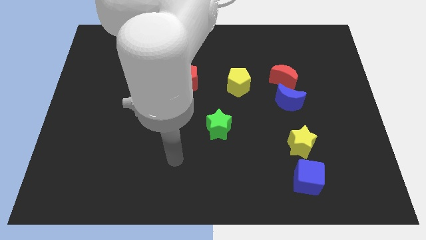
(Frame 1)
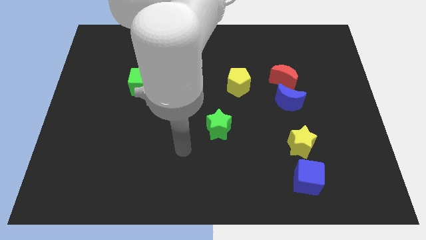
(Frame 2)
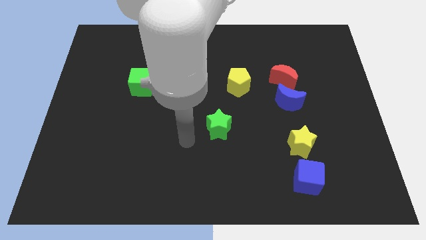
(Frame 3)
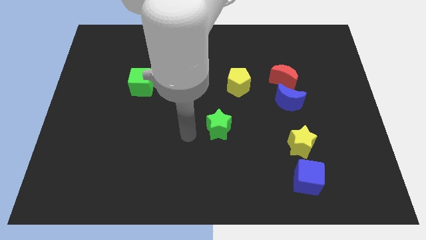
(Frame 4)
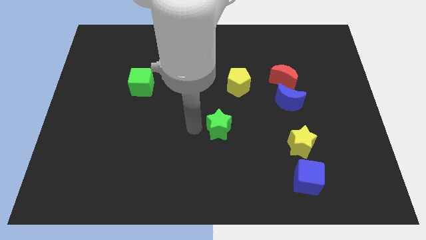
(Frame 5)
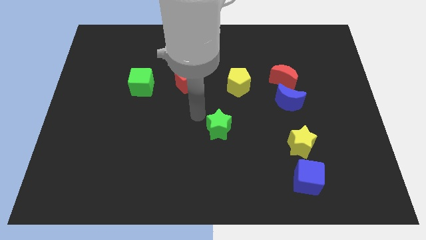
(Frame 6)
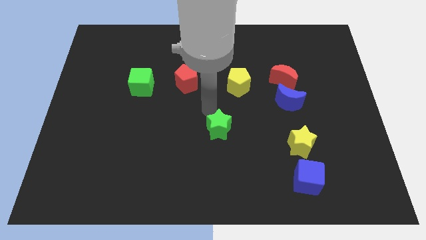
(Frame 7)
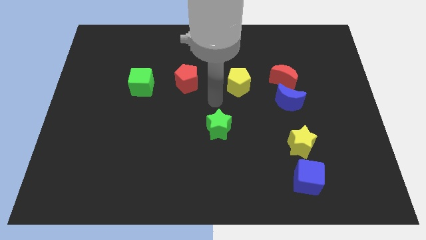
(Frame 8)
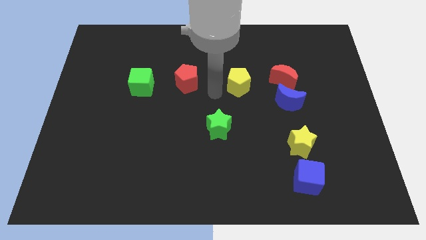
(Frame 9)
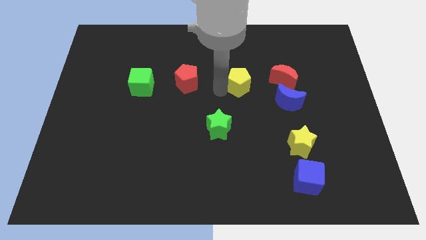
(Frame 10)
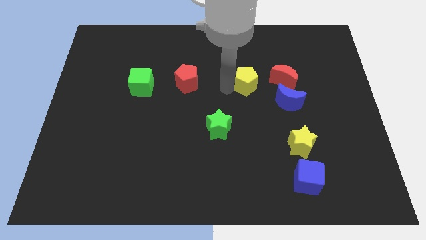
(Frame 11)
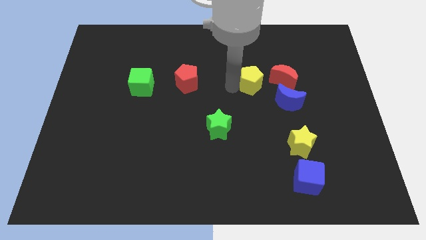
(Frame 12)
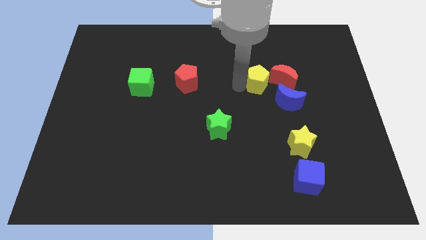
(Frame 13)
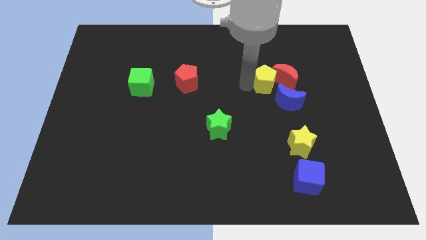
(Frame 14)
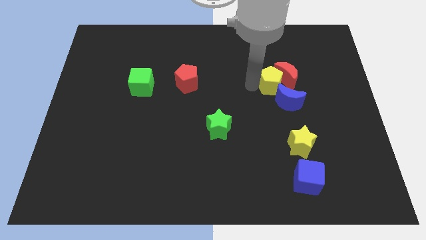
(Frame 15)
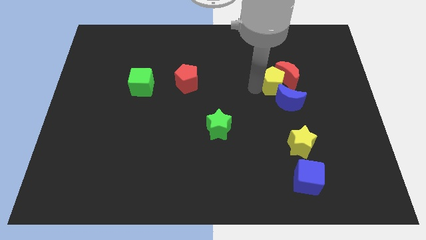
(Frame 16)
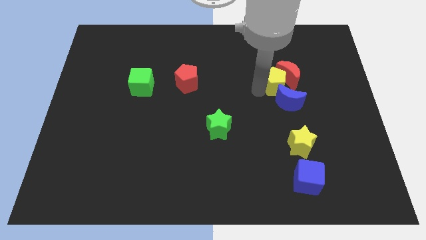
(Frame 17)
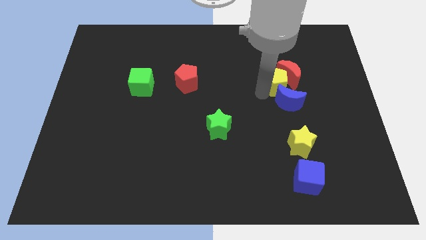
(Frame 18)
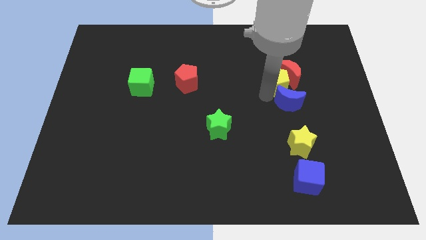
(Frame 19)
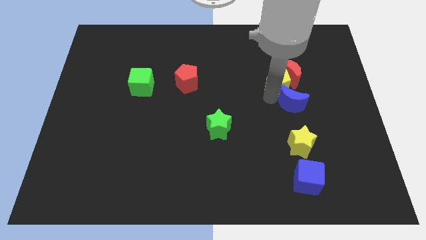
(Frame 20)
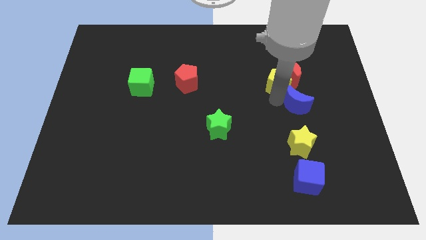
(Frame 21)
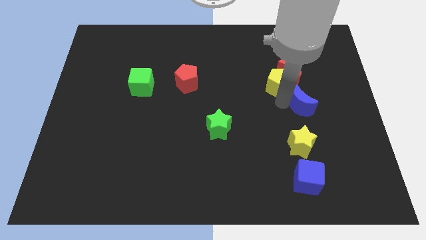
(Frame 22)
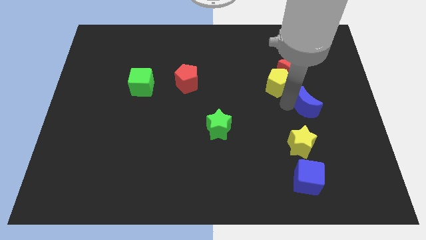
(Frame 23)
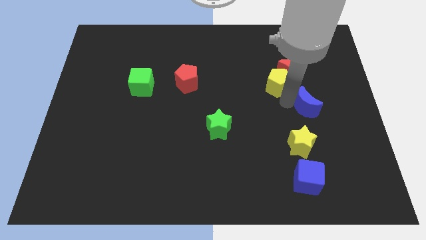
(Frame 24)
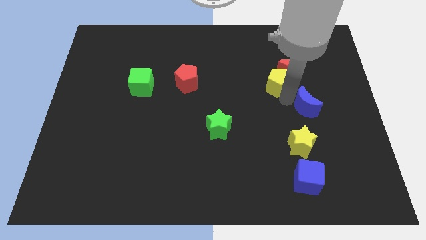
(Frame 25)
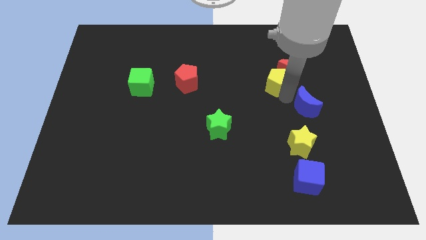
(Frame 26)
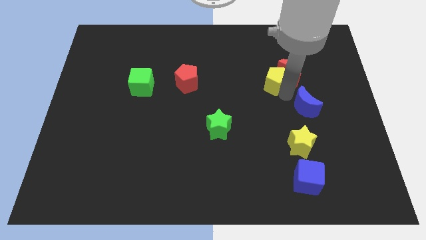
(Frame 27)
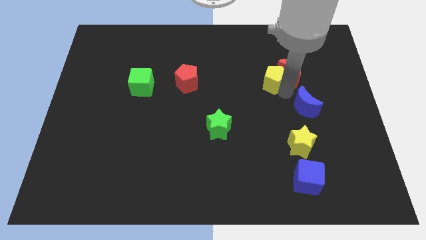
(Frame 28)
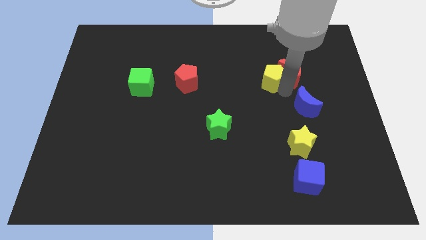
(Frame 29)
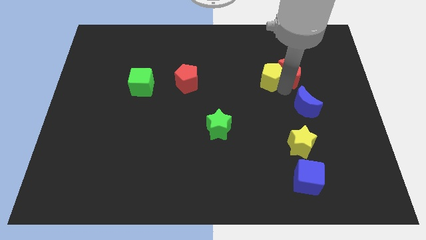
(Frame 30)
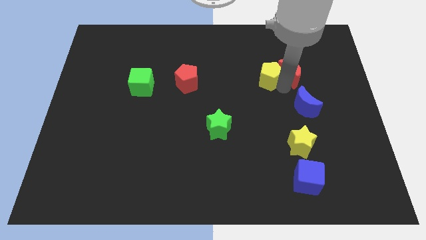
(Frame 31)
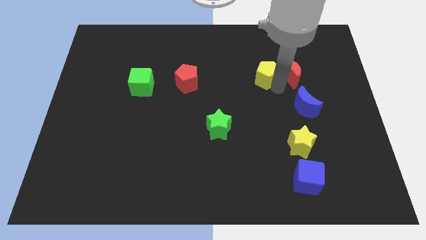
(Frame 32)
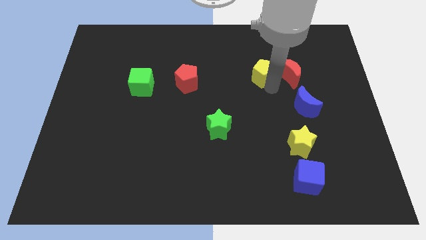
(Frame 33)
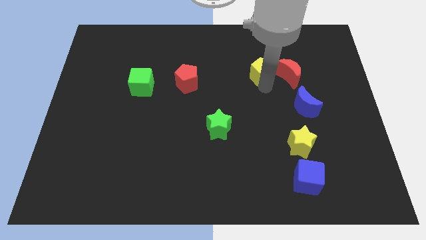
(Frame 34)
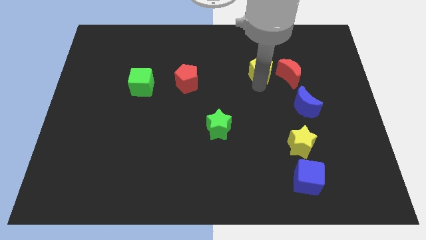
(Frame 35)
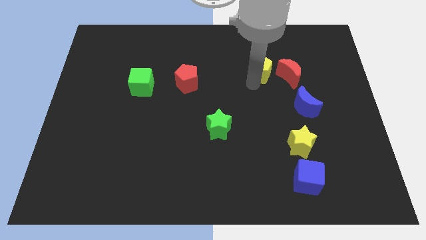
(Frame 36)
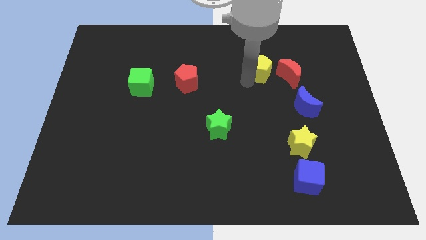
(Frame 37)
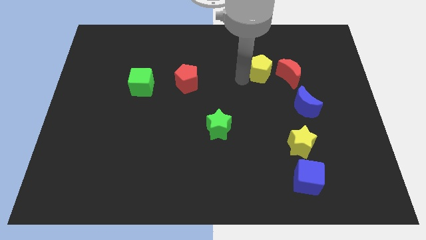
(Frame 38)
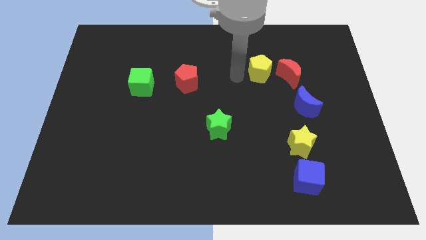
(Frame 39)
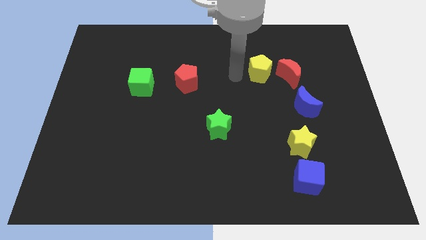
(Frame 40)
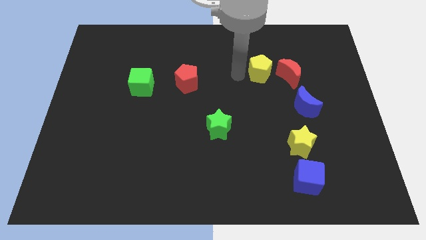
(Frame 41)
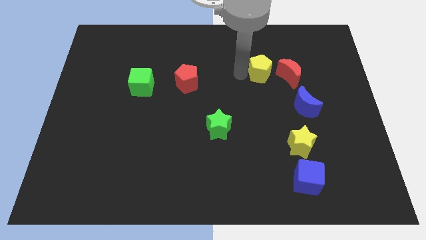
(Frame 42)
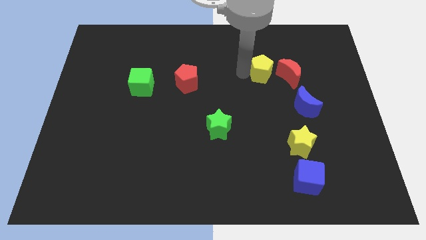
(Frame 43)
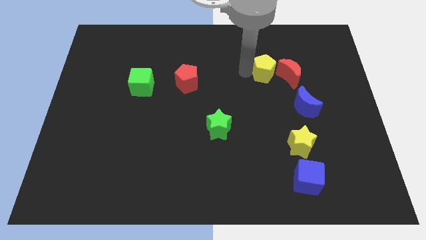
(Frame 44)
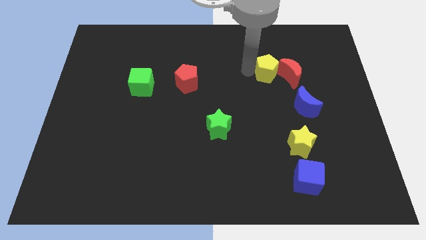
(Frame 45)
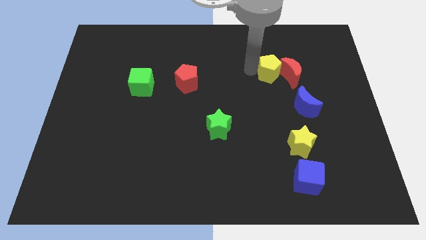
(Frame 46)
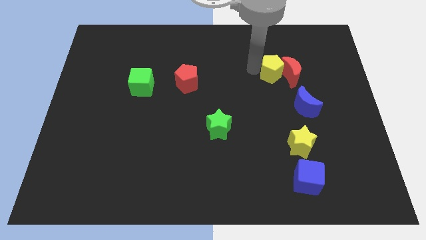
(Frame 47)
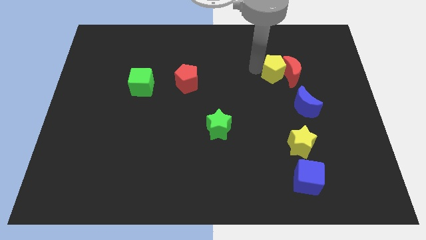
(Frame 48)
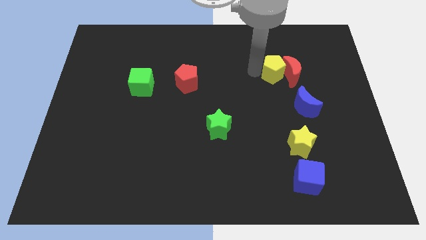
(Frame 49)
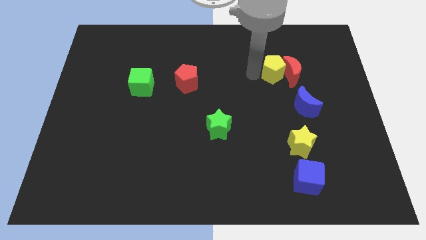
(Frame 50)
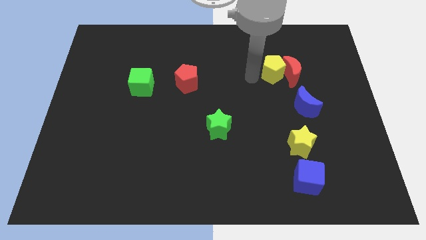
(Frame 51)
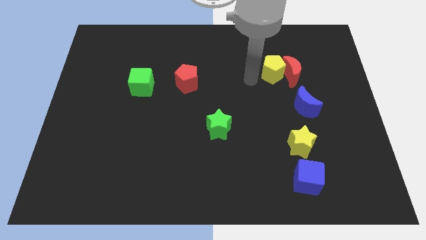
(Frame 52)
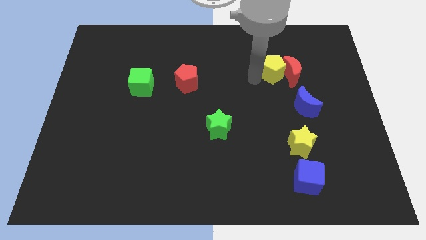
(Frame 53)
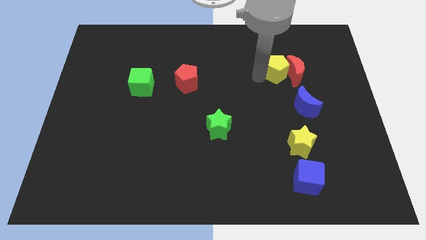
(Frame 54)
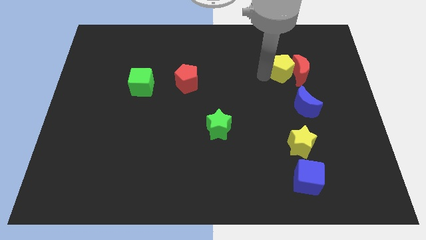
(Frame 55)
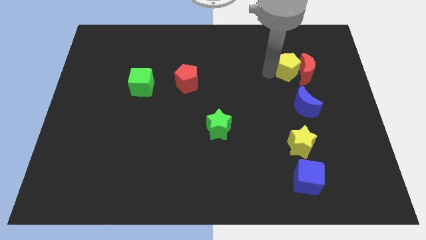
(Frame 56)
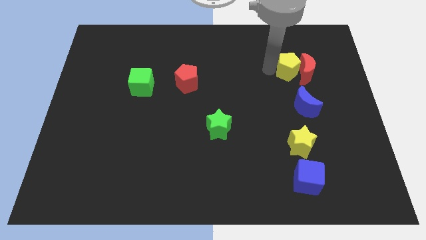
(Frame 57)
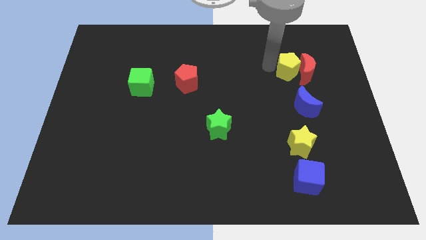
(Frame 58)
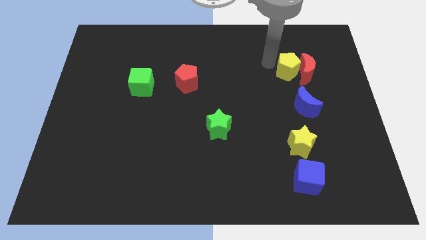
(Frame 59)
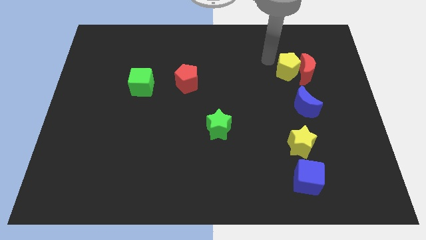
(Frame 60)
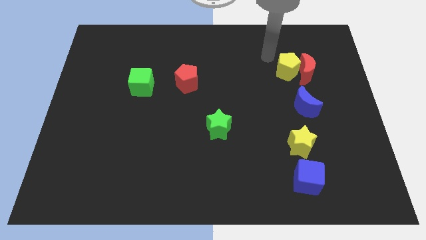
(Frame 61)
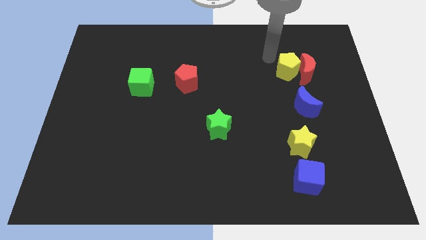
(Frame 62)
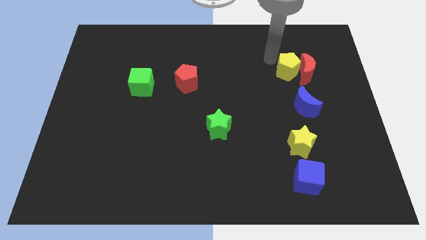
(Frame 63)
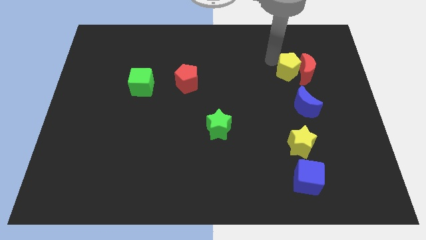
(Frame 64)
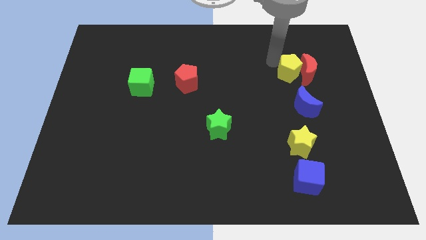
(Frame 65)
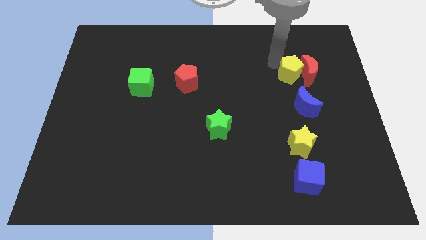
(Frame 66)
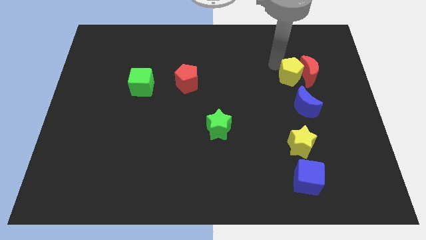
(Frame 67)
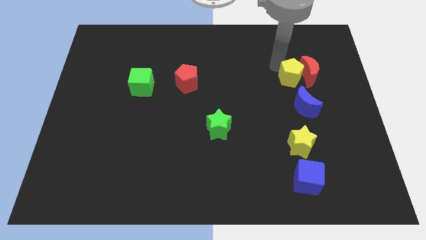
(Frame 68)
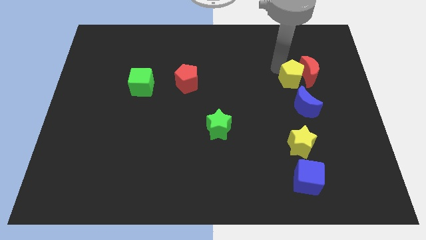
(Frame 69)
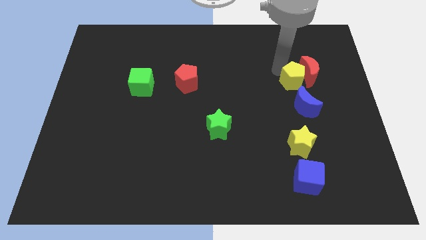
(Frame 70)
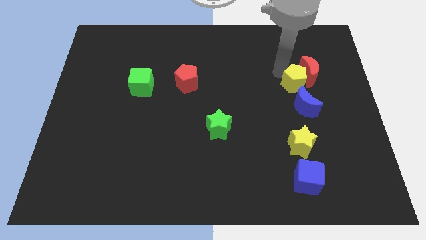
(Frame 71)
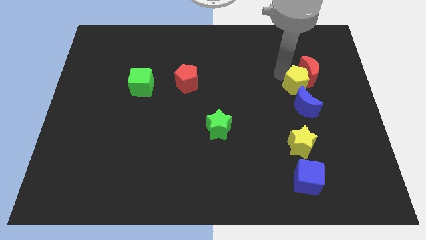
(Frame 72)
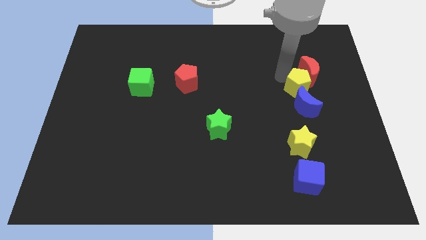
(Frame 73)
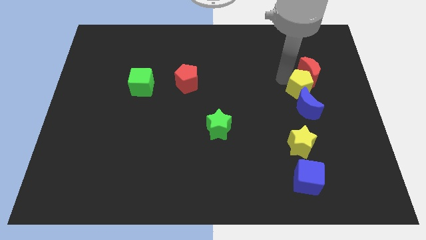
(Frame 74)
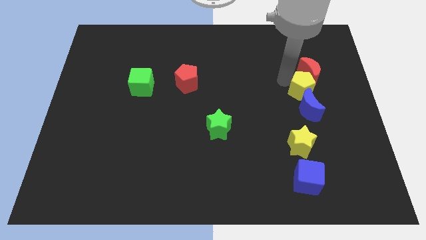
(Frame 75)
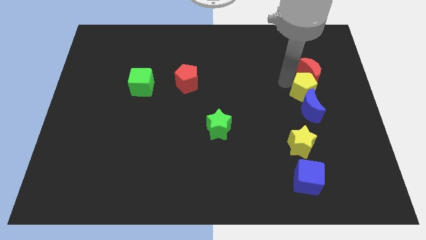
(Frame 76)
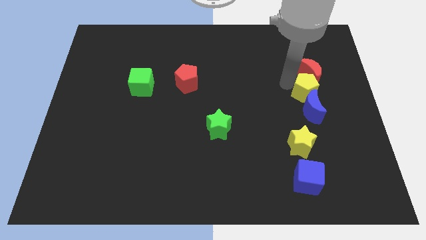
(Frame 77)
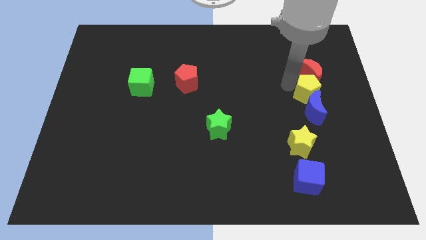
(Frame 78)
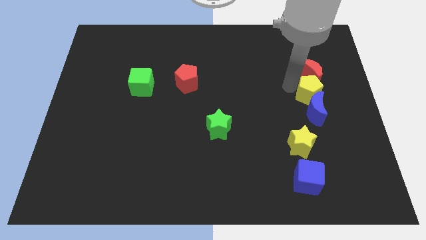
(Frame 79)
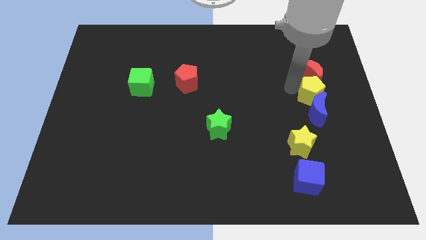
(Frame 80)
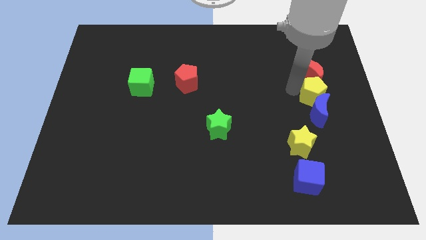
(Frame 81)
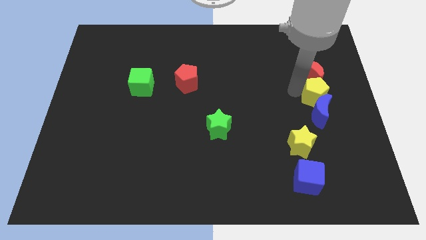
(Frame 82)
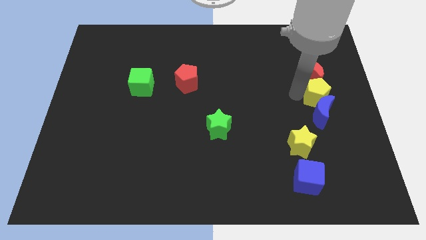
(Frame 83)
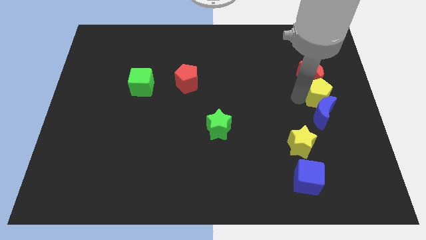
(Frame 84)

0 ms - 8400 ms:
push the yellow pentagon to the right side of the board
